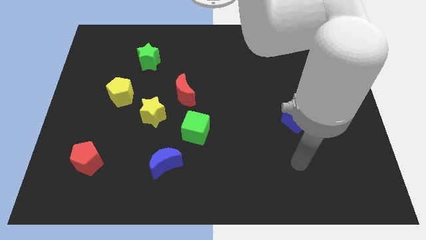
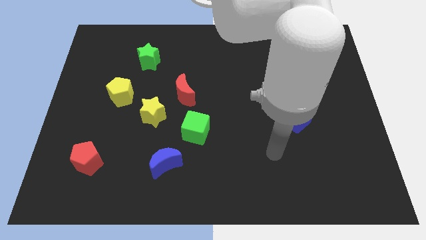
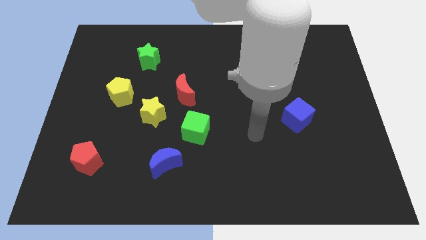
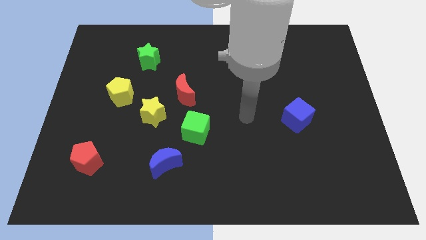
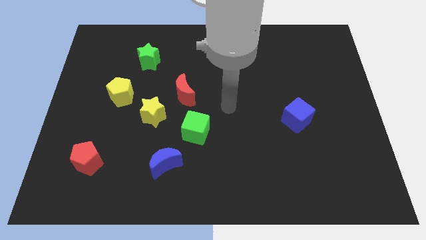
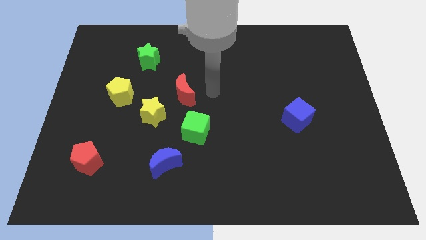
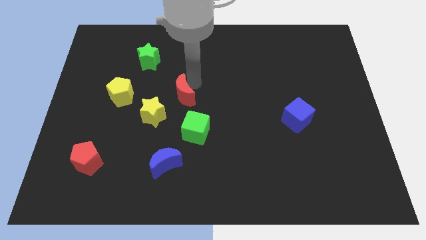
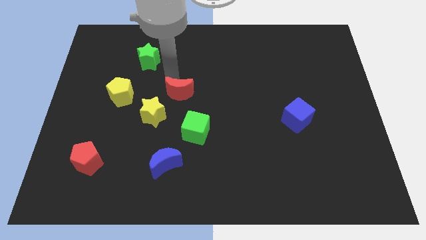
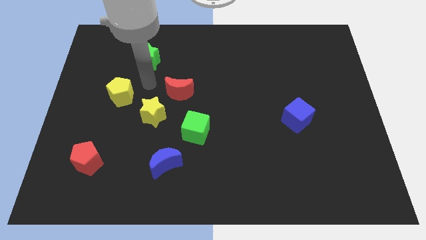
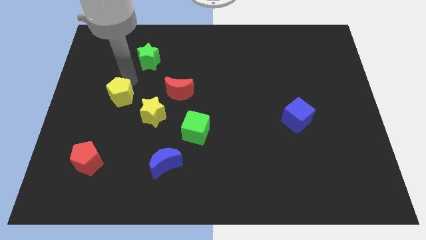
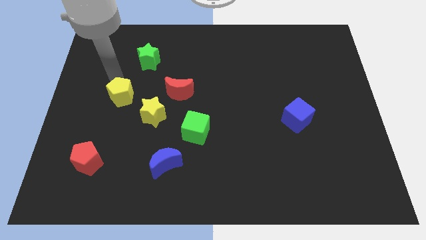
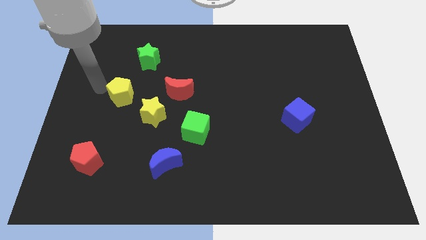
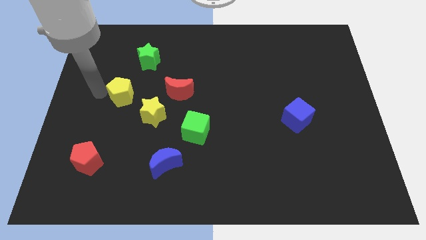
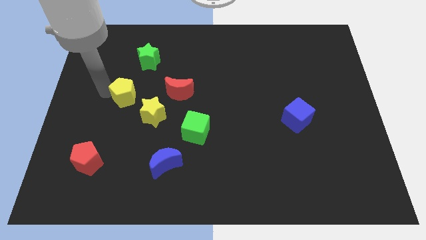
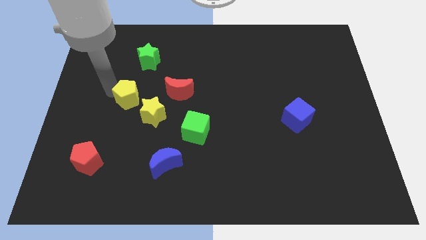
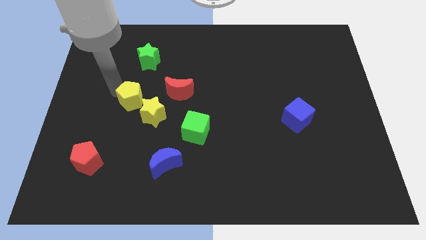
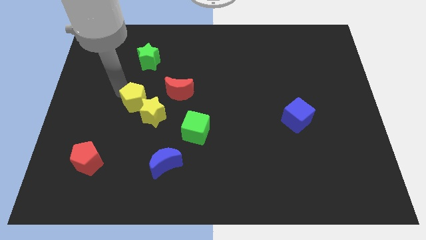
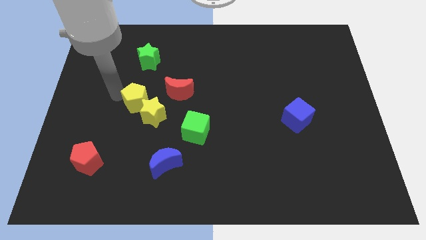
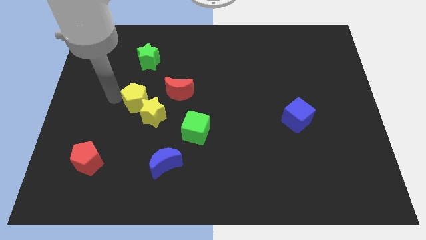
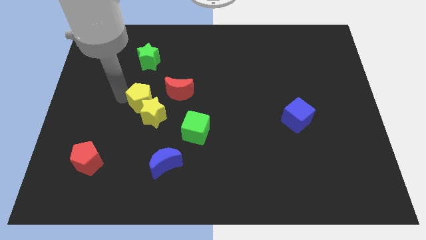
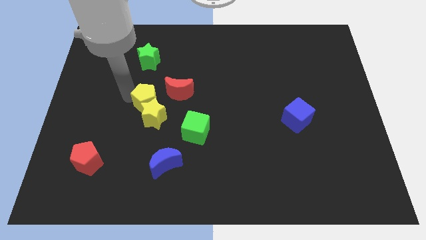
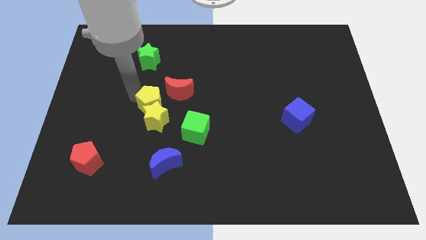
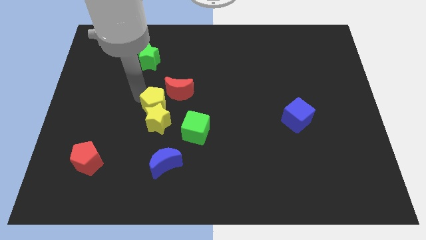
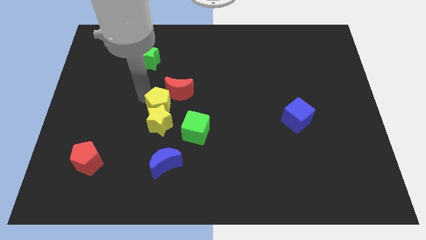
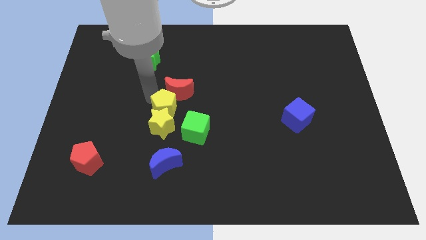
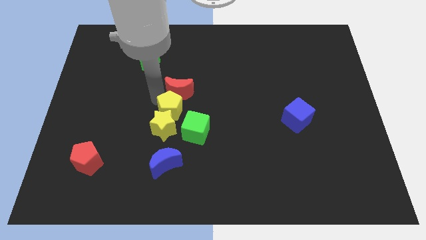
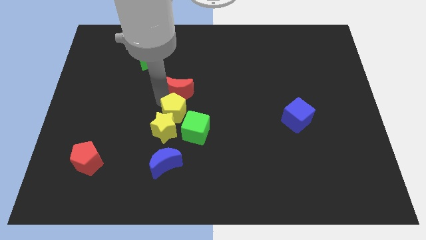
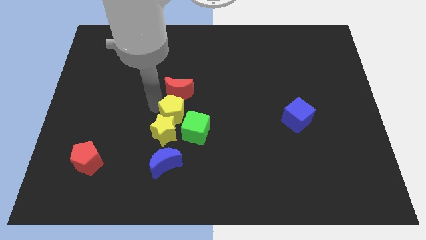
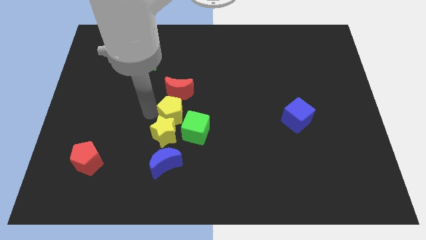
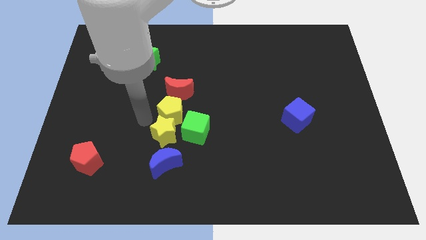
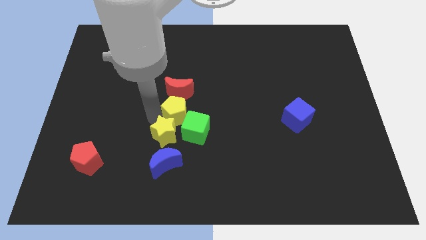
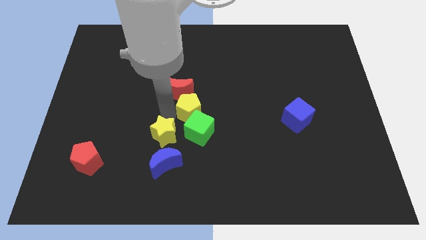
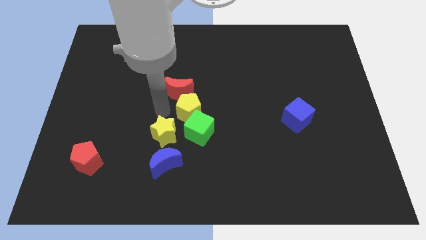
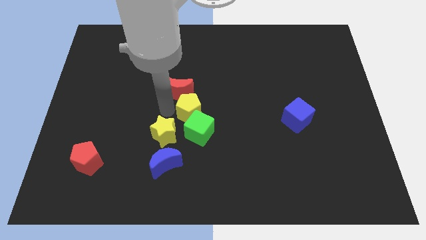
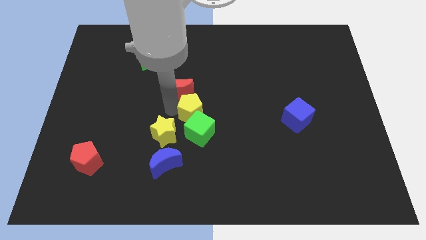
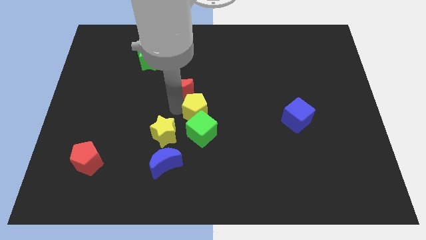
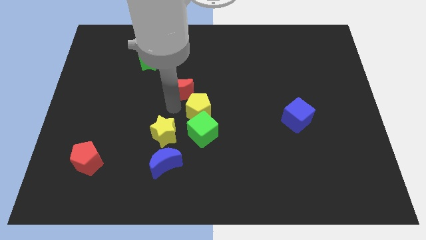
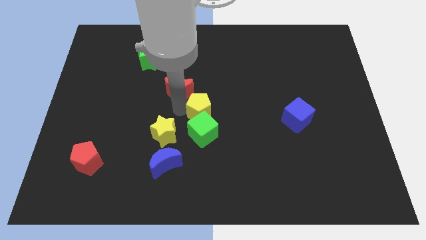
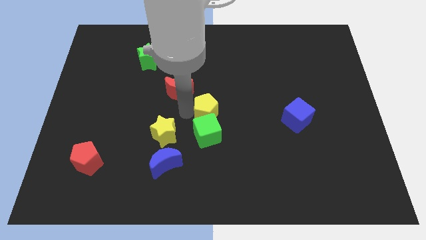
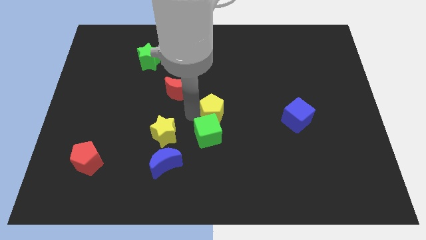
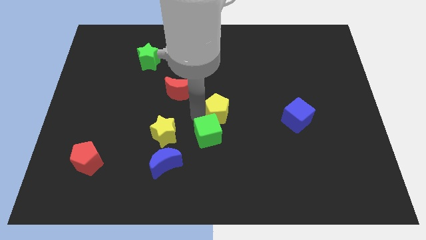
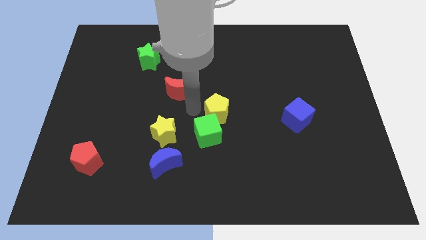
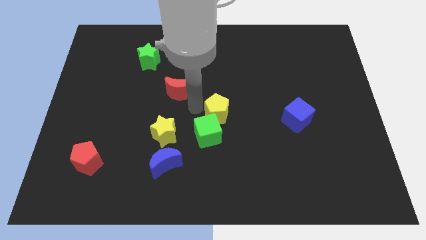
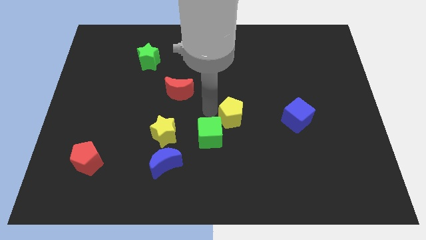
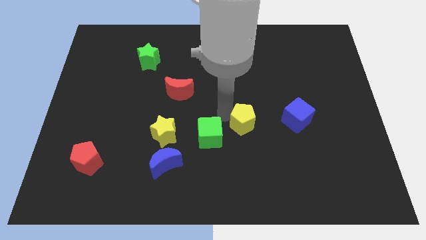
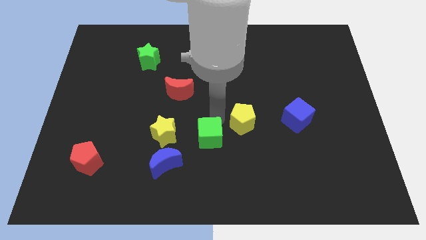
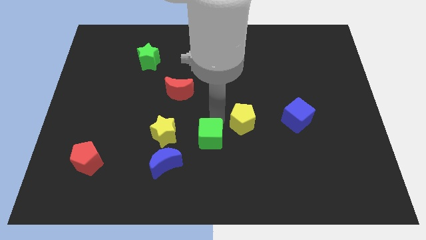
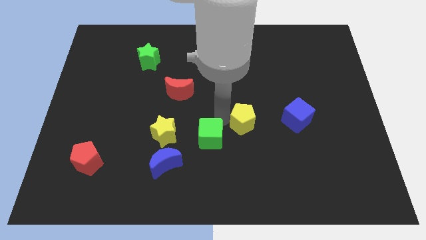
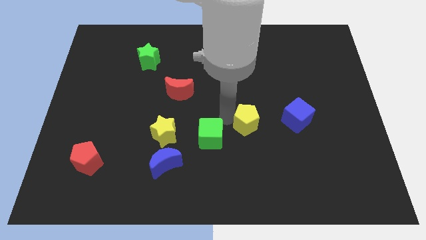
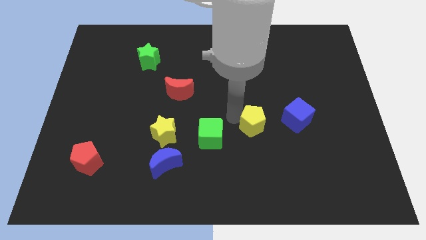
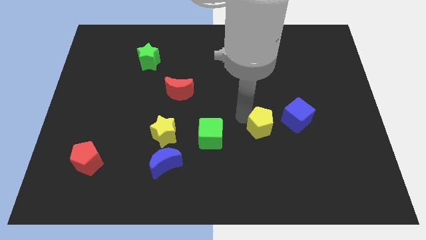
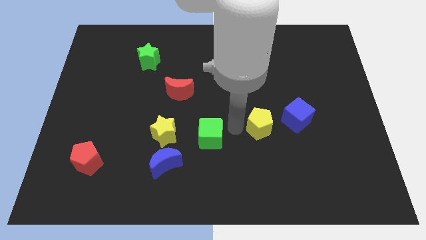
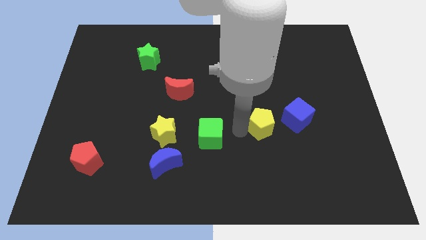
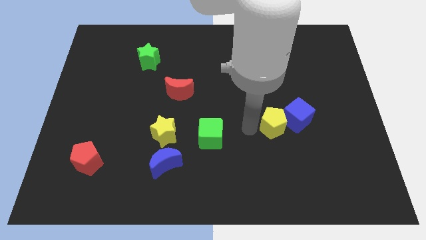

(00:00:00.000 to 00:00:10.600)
slide the yellow pentagon next to the blue cube

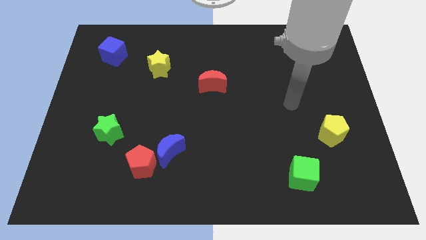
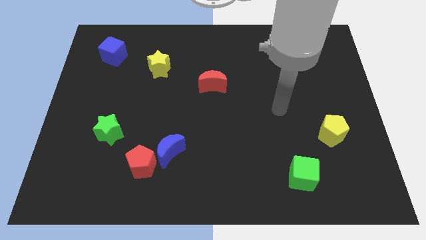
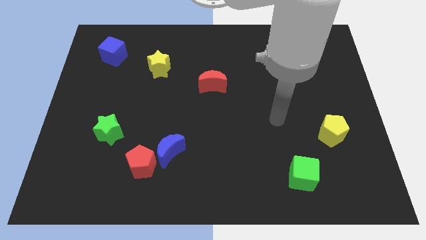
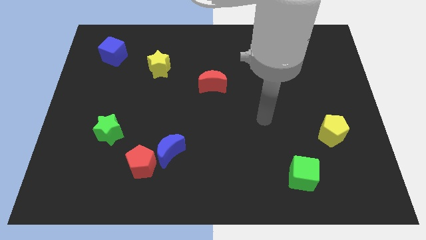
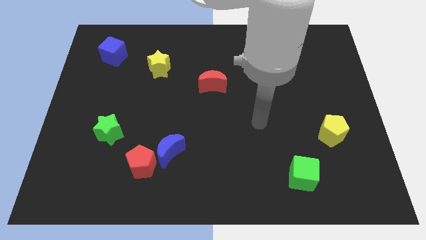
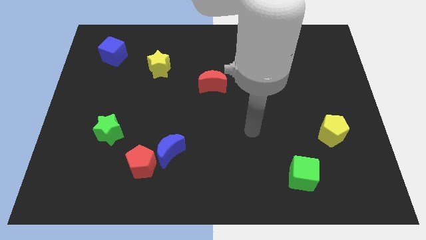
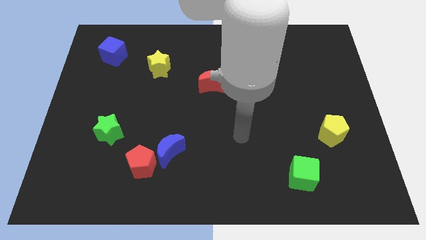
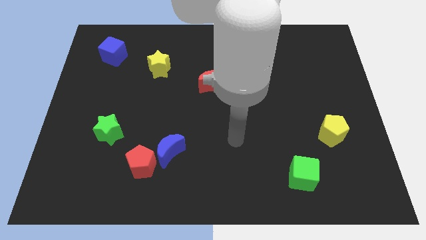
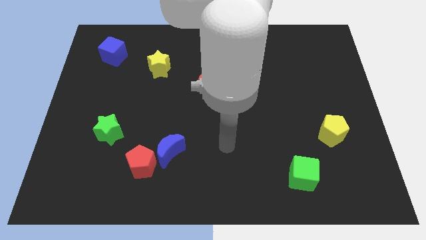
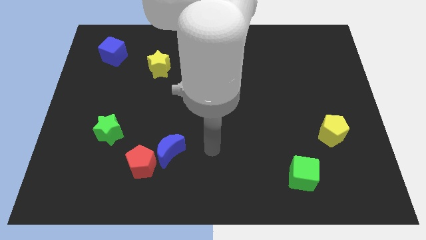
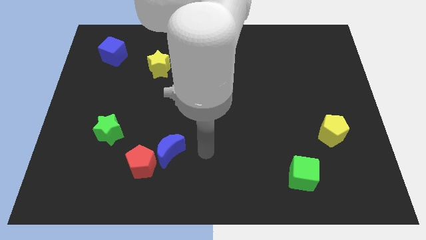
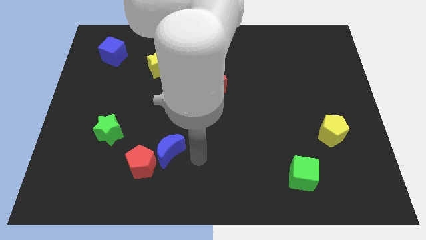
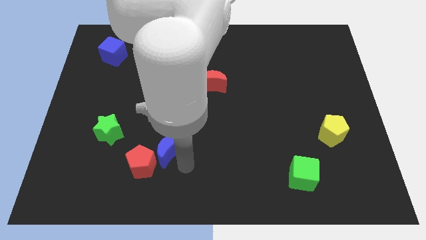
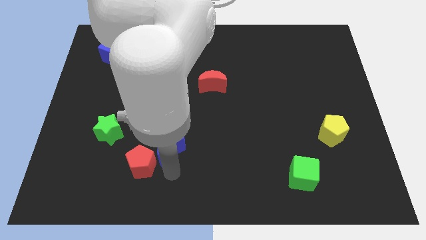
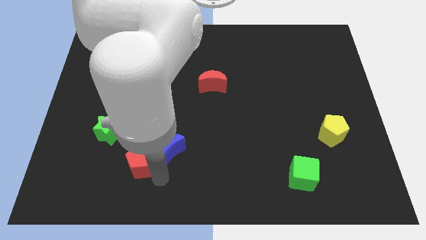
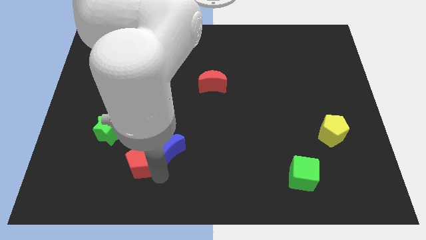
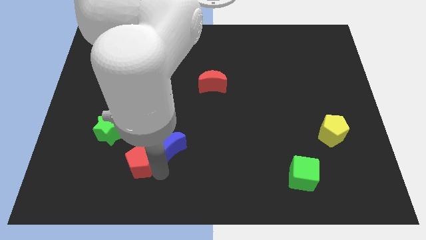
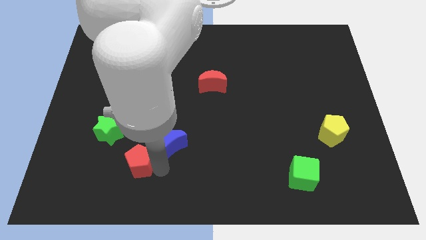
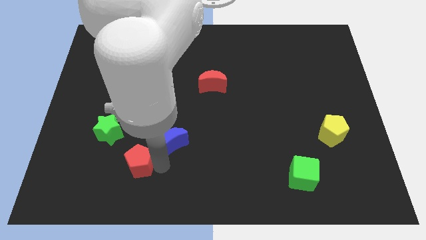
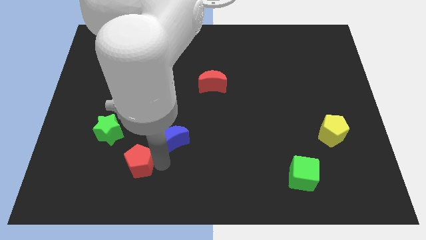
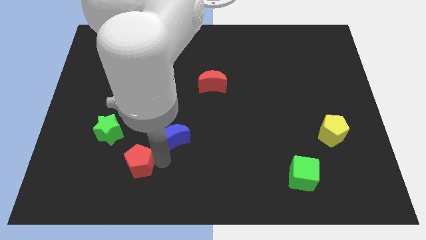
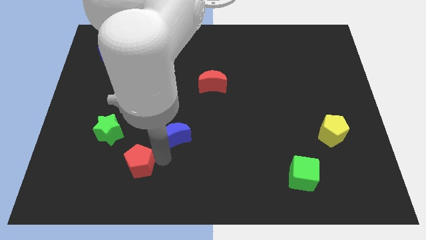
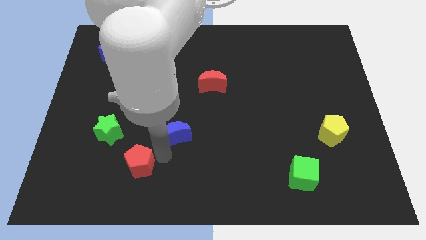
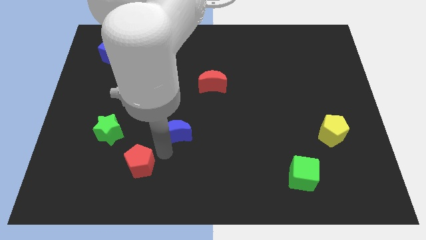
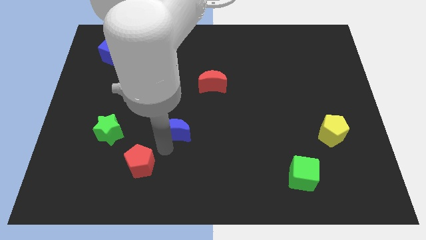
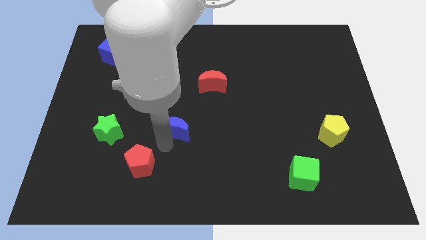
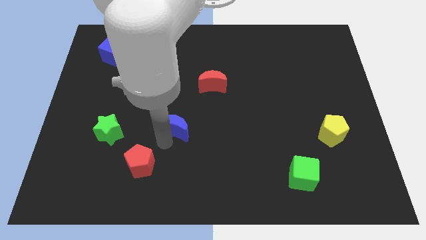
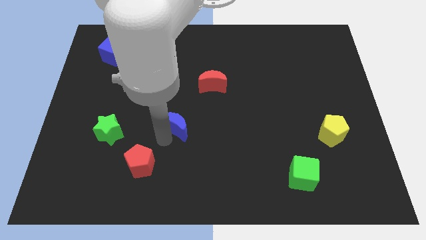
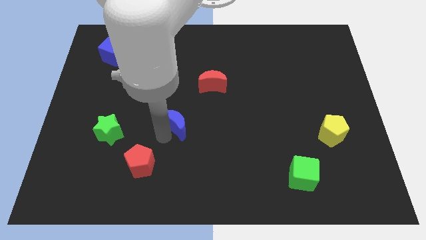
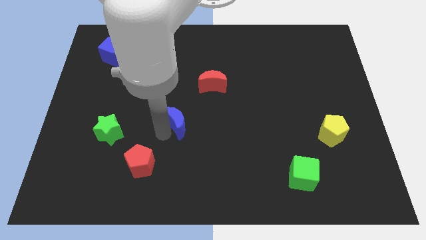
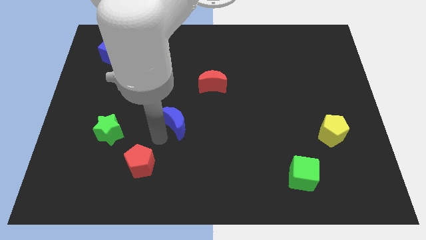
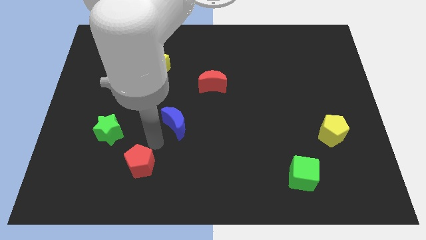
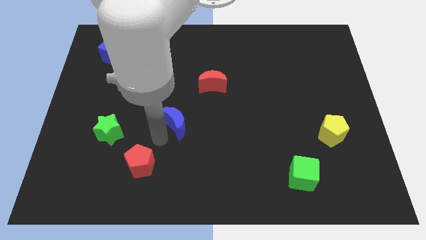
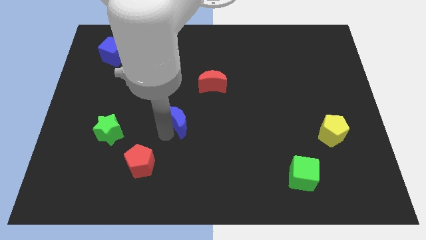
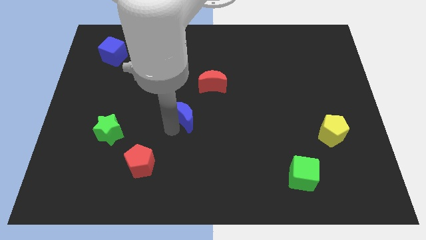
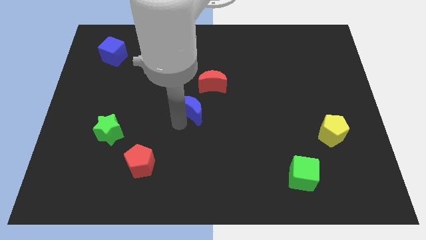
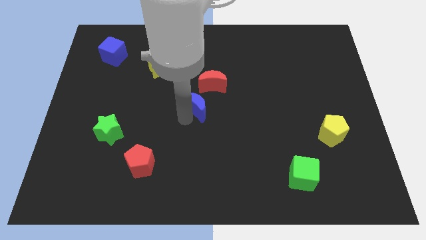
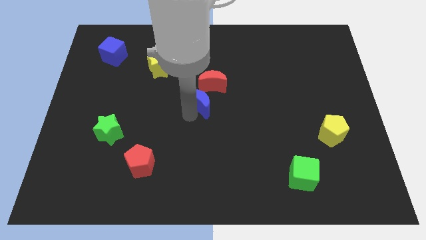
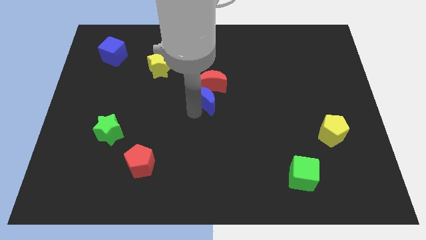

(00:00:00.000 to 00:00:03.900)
move the blue moon towards the red moon
